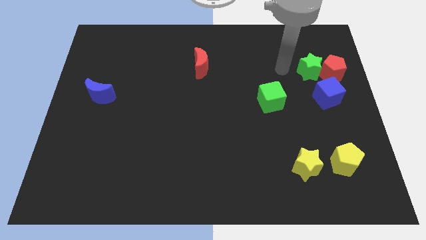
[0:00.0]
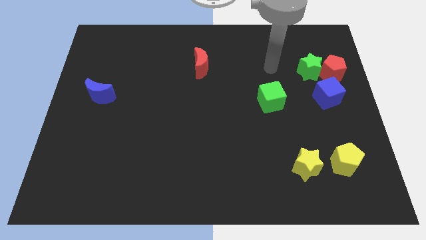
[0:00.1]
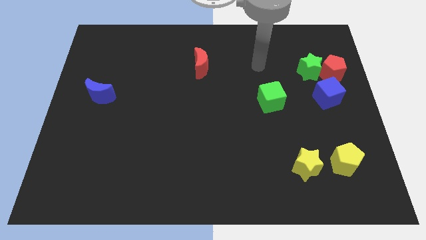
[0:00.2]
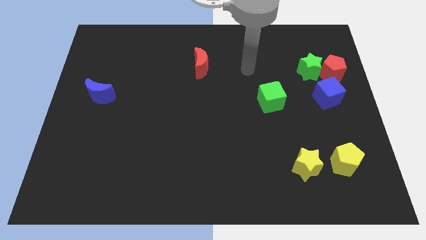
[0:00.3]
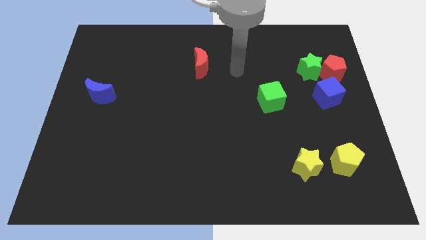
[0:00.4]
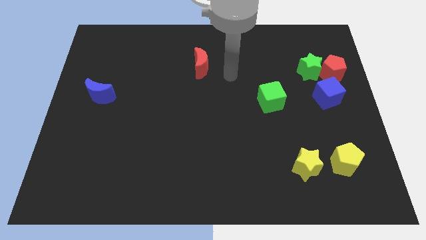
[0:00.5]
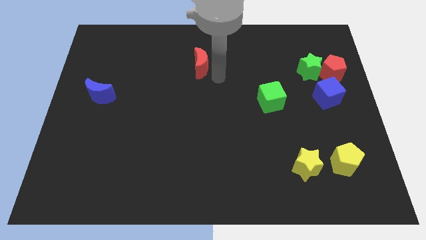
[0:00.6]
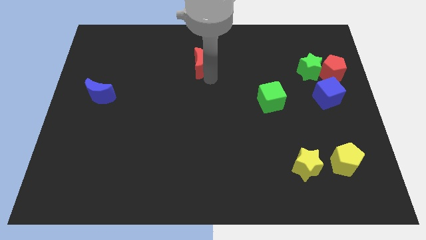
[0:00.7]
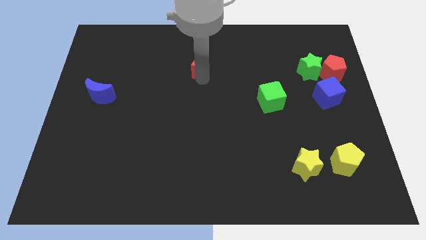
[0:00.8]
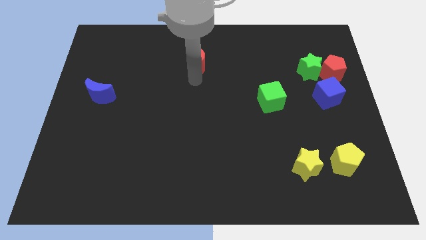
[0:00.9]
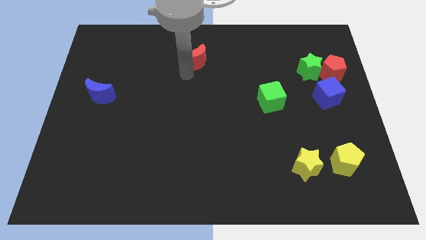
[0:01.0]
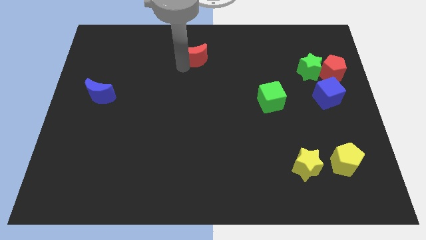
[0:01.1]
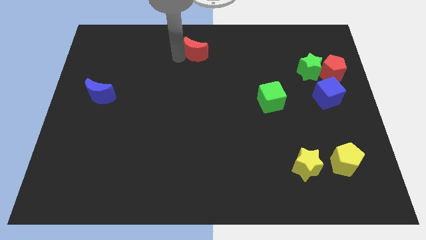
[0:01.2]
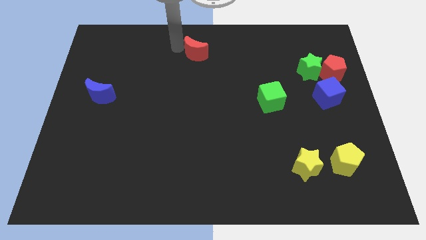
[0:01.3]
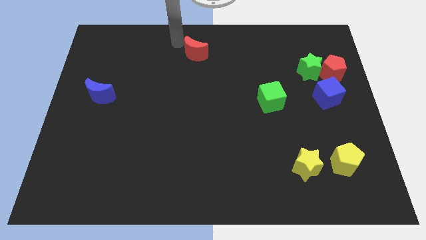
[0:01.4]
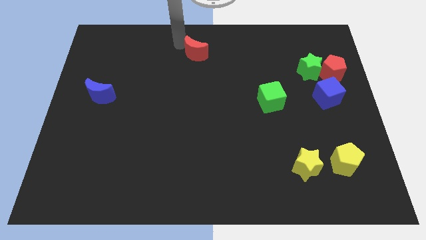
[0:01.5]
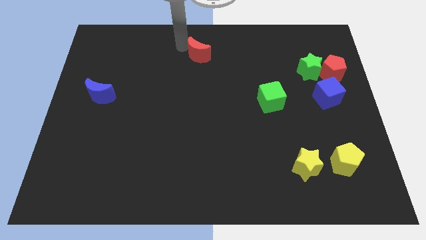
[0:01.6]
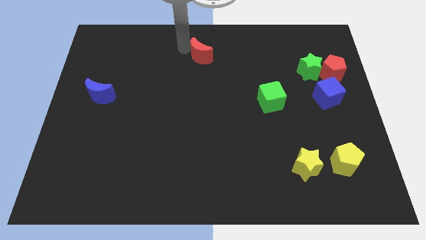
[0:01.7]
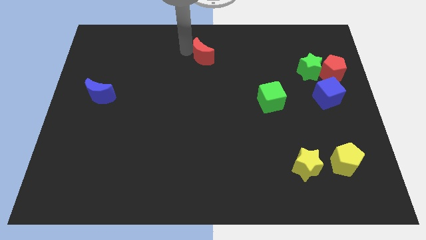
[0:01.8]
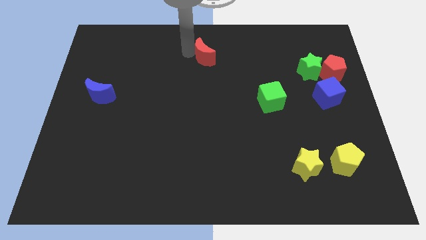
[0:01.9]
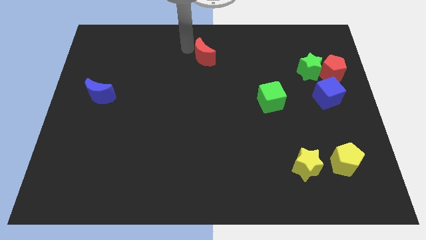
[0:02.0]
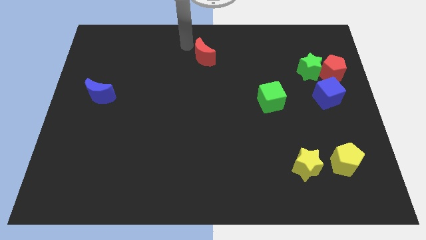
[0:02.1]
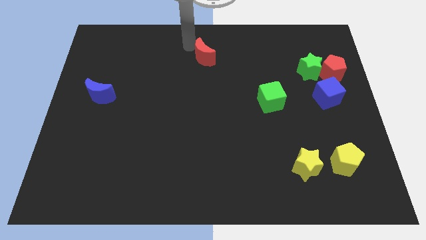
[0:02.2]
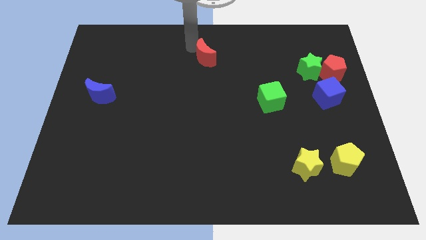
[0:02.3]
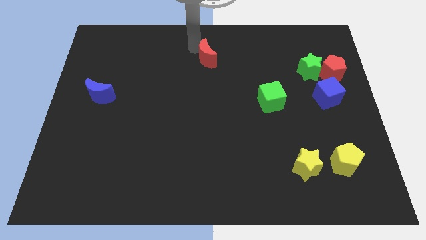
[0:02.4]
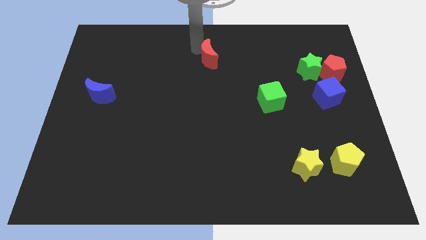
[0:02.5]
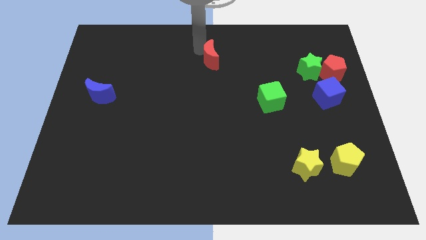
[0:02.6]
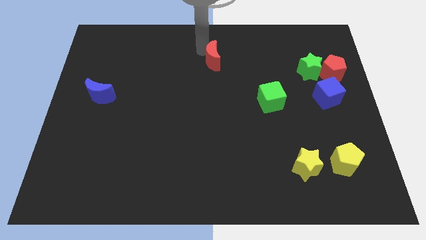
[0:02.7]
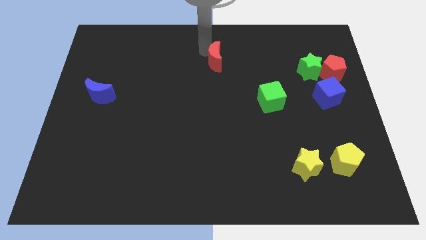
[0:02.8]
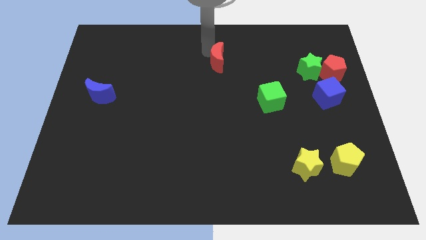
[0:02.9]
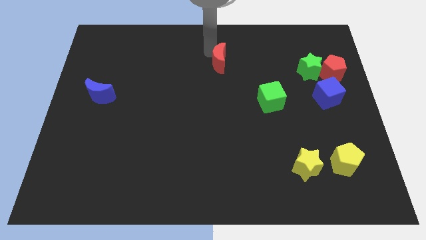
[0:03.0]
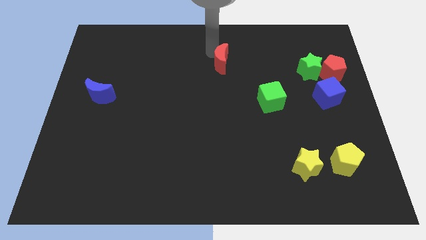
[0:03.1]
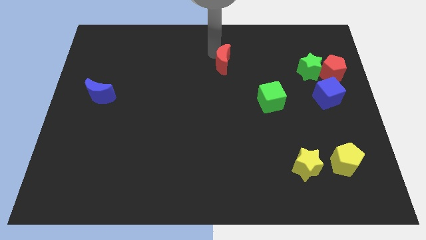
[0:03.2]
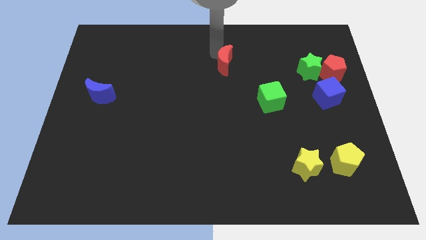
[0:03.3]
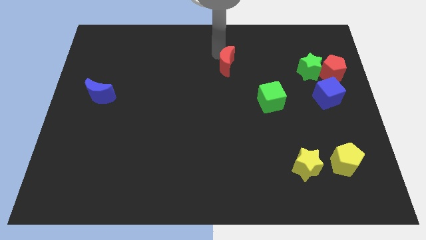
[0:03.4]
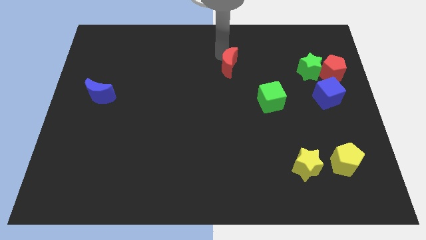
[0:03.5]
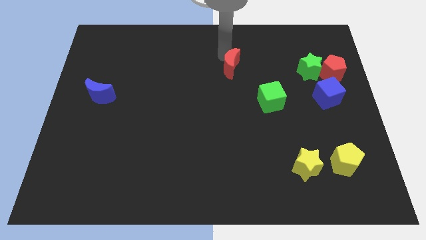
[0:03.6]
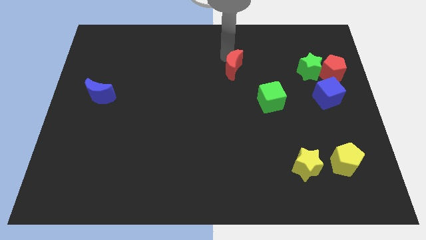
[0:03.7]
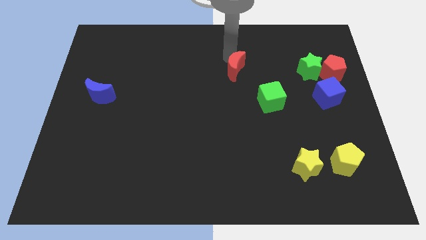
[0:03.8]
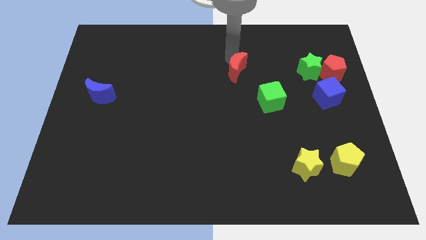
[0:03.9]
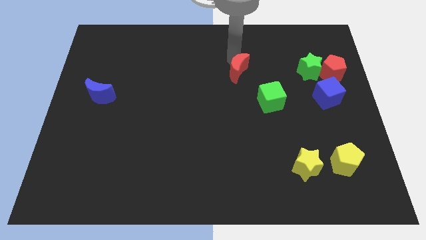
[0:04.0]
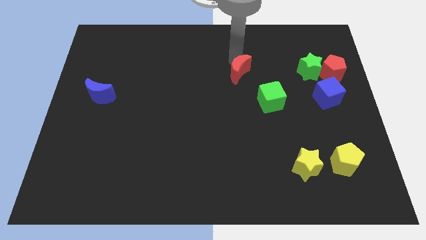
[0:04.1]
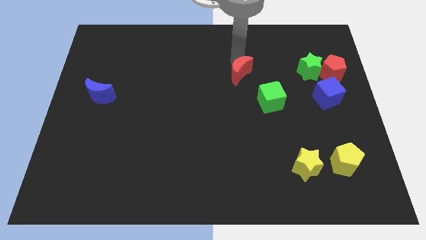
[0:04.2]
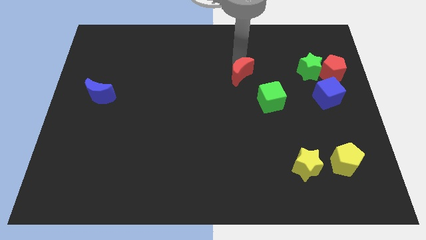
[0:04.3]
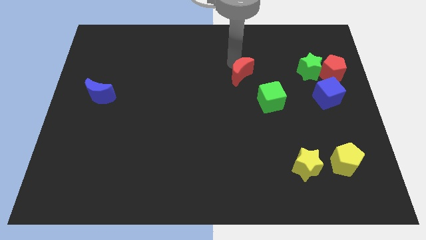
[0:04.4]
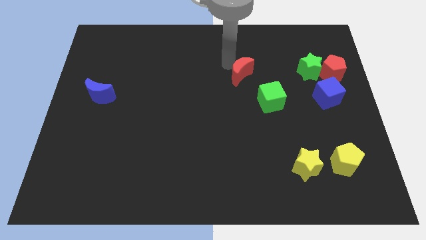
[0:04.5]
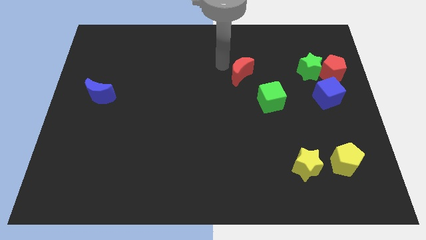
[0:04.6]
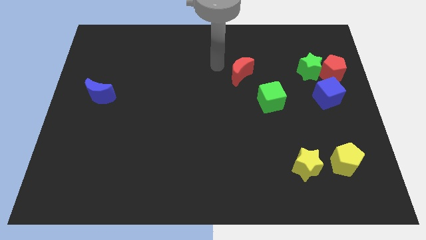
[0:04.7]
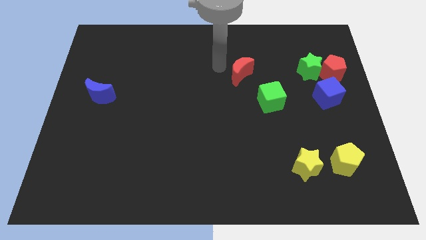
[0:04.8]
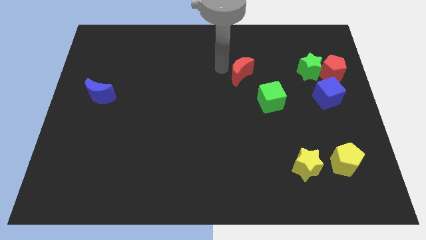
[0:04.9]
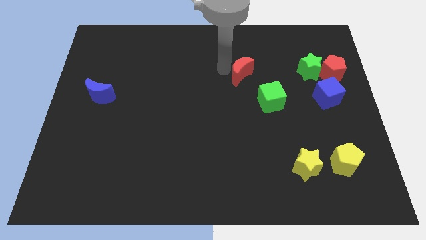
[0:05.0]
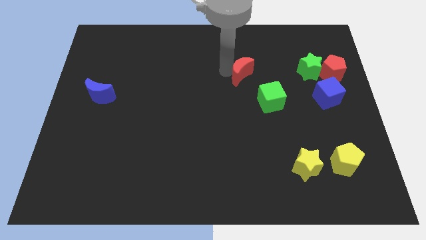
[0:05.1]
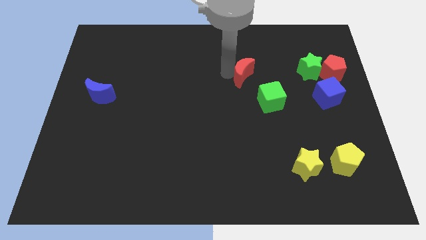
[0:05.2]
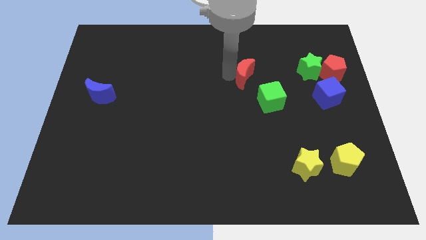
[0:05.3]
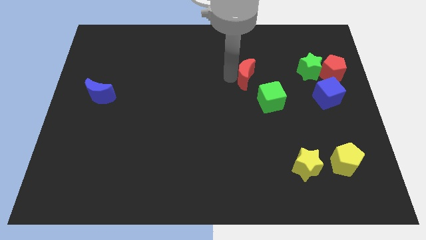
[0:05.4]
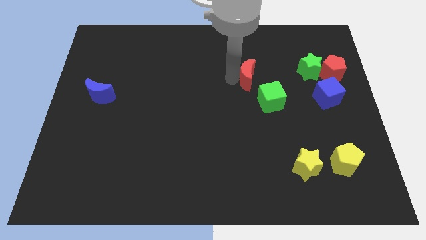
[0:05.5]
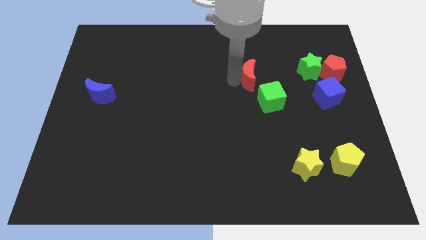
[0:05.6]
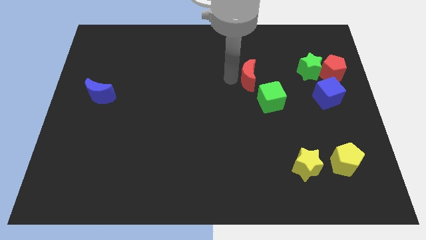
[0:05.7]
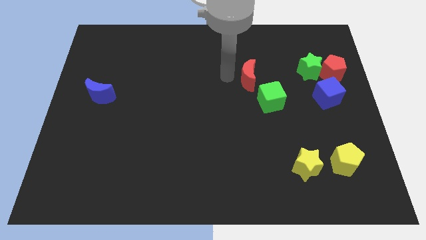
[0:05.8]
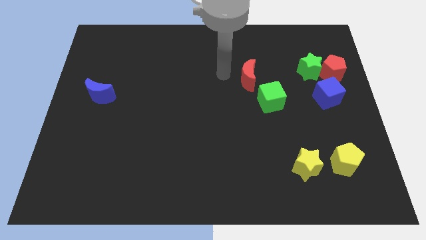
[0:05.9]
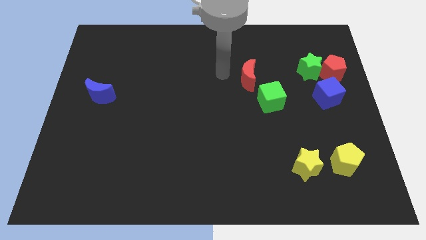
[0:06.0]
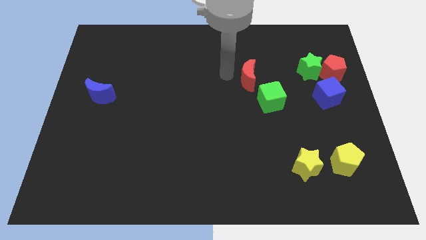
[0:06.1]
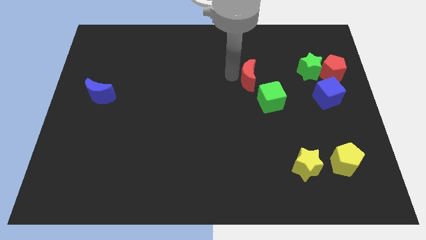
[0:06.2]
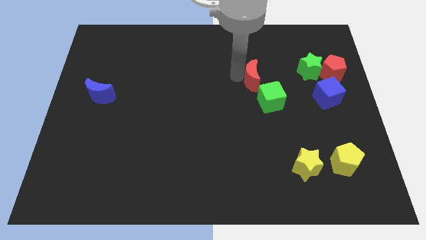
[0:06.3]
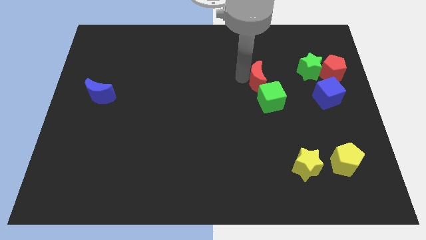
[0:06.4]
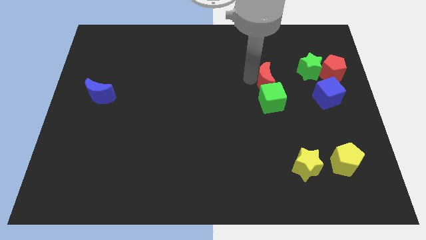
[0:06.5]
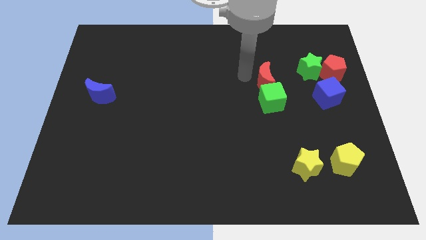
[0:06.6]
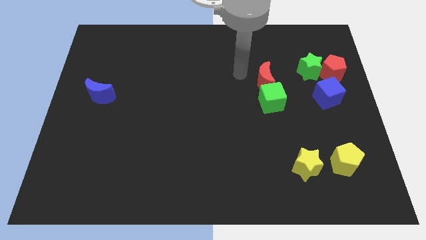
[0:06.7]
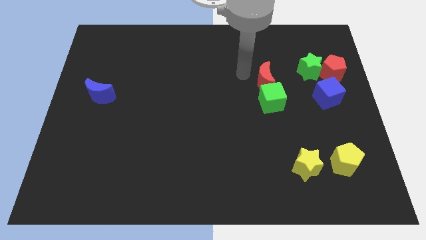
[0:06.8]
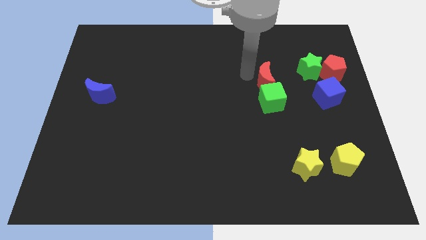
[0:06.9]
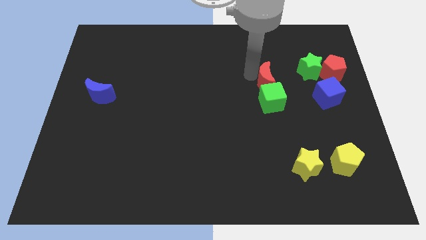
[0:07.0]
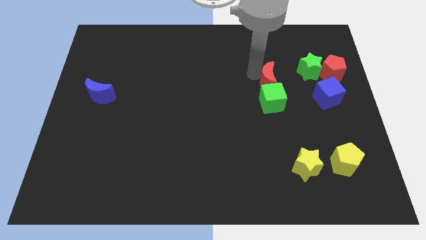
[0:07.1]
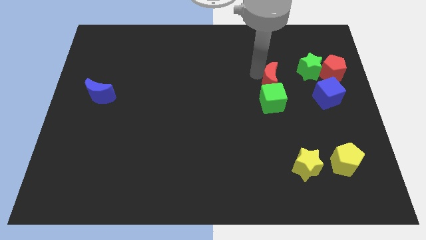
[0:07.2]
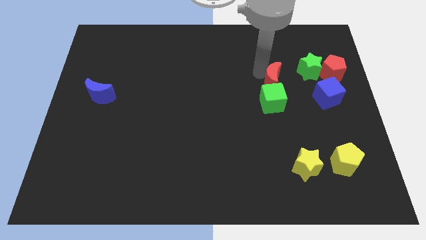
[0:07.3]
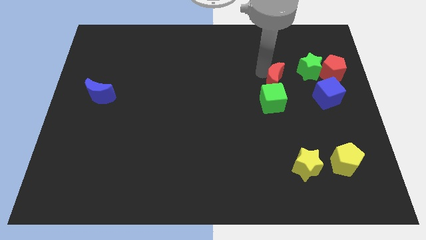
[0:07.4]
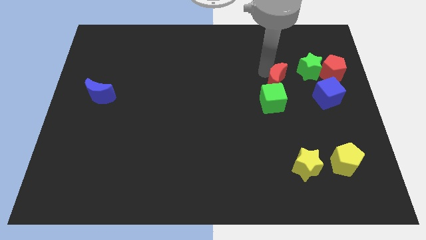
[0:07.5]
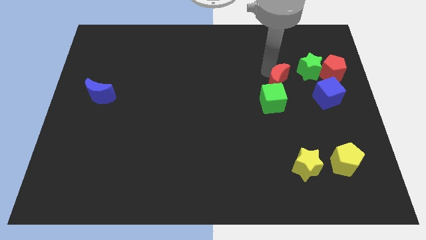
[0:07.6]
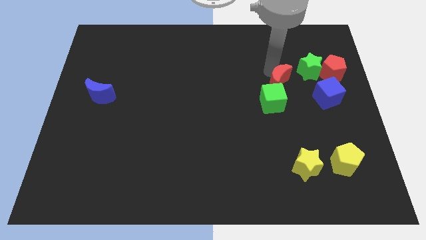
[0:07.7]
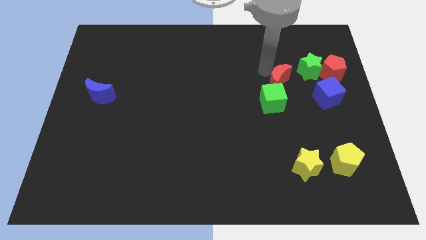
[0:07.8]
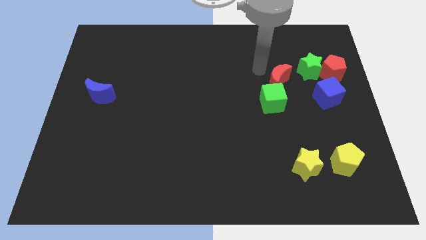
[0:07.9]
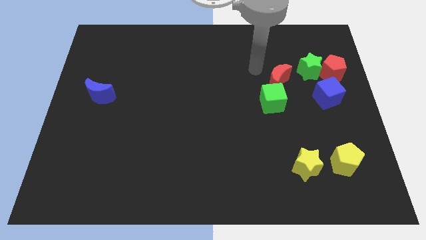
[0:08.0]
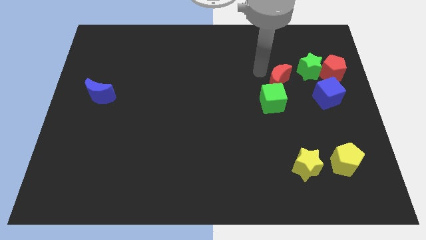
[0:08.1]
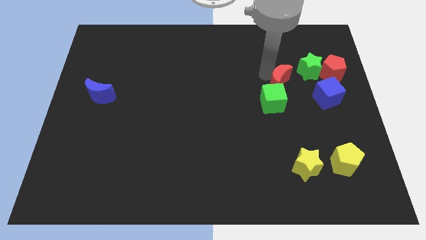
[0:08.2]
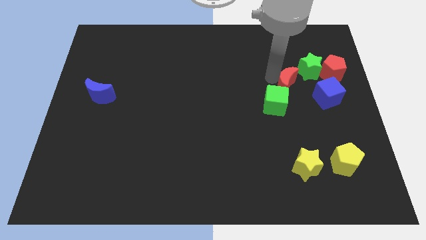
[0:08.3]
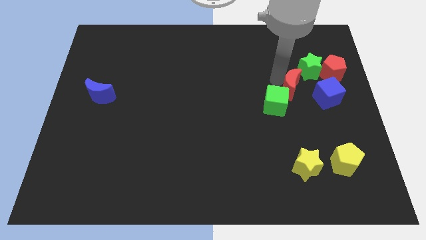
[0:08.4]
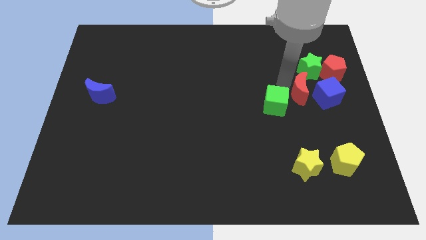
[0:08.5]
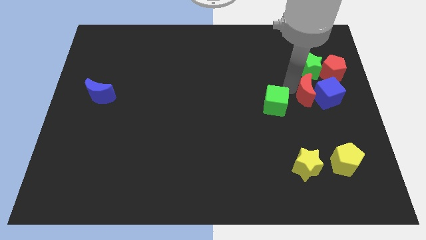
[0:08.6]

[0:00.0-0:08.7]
slide the red moon next to the blue cube
